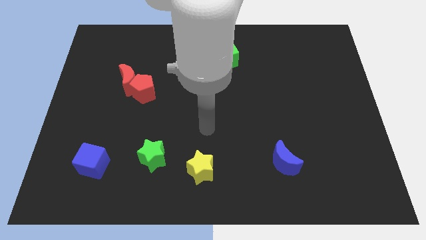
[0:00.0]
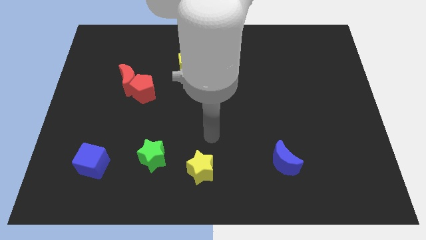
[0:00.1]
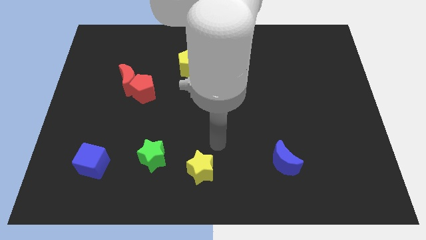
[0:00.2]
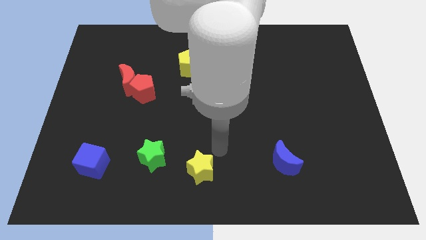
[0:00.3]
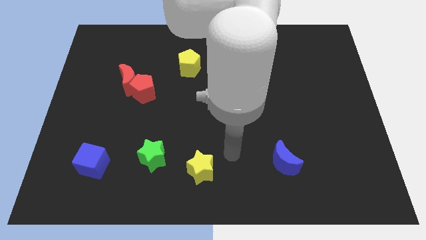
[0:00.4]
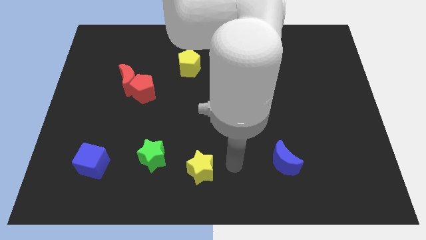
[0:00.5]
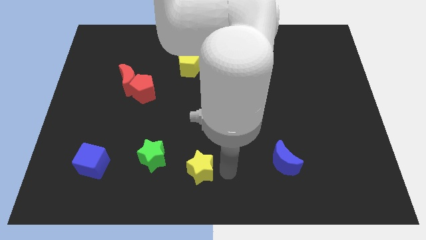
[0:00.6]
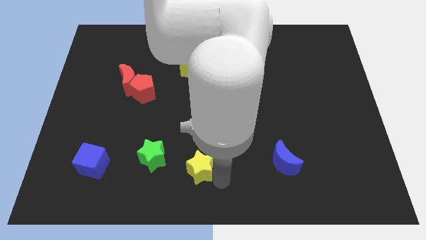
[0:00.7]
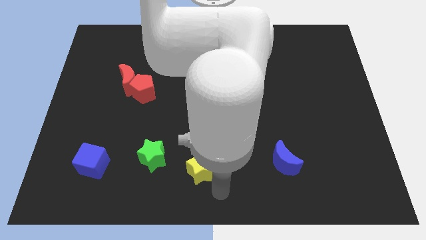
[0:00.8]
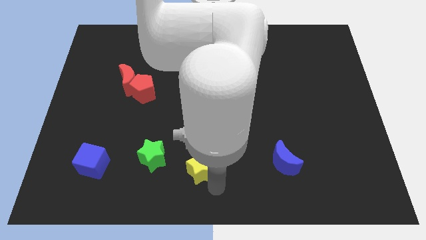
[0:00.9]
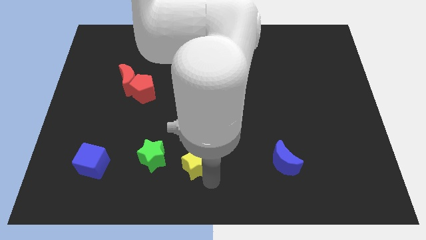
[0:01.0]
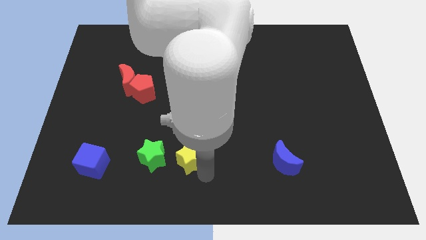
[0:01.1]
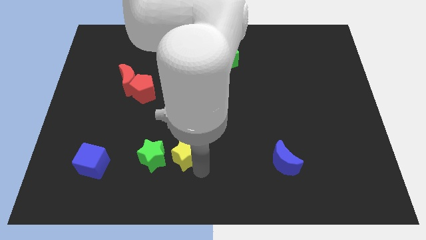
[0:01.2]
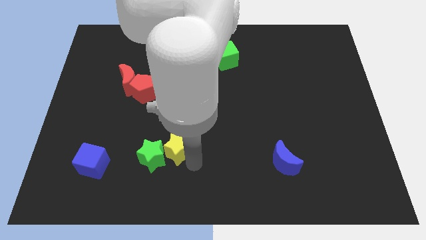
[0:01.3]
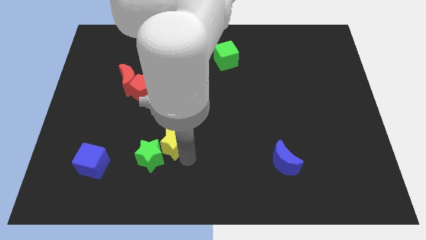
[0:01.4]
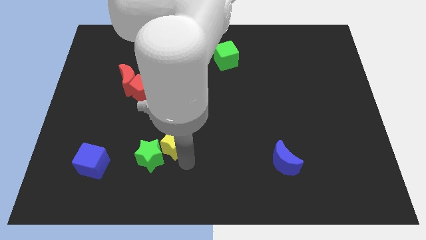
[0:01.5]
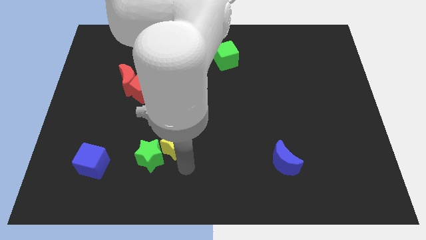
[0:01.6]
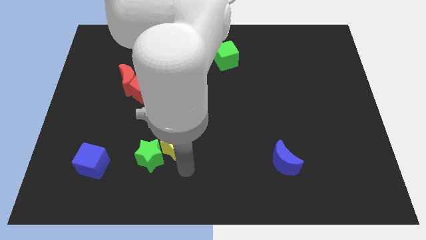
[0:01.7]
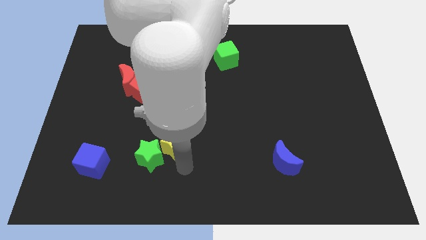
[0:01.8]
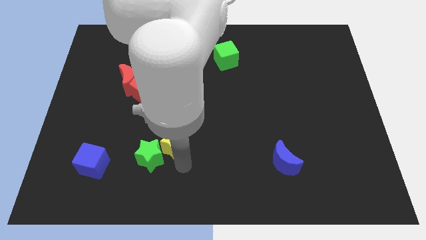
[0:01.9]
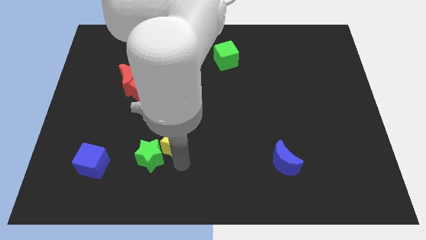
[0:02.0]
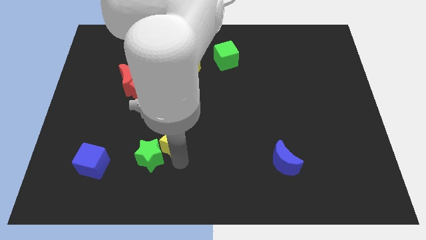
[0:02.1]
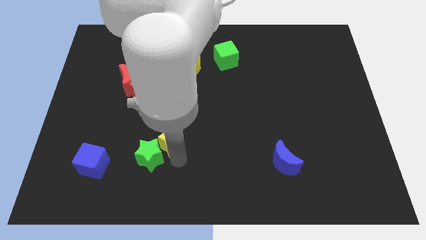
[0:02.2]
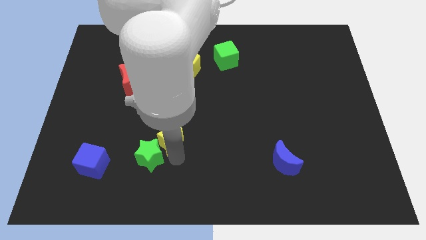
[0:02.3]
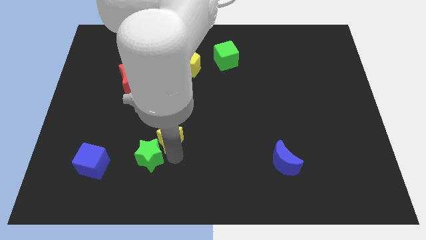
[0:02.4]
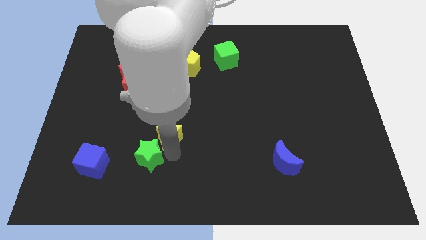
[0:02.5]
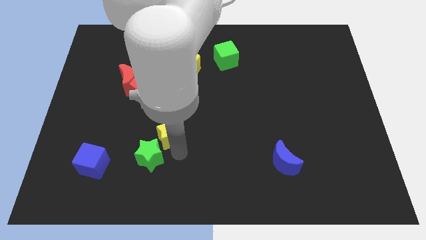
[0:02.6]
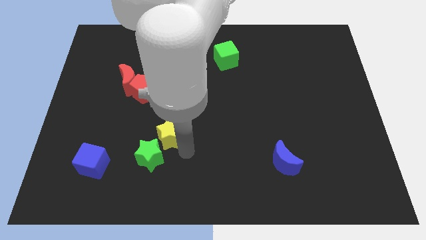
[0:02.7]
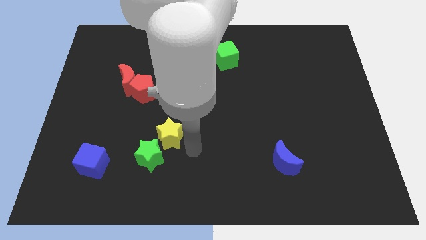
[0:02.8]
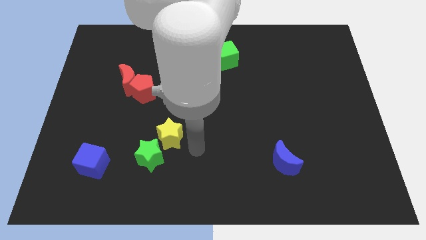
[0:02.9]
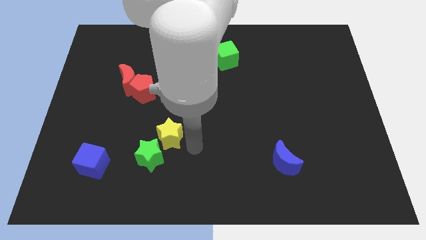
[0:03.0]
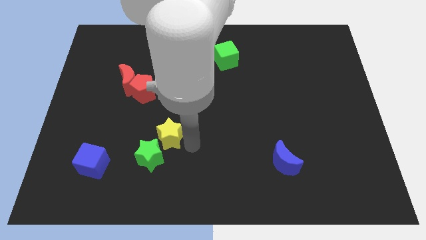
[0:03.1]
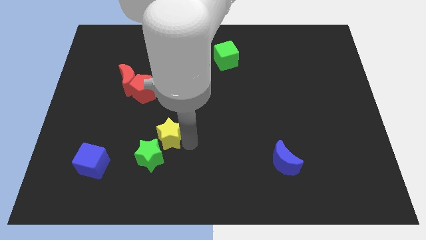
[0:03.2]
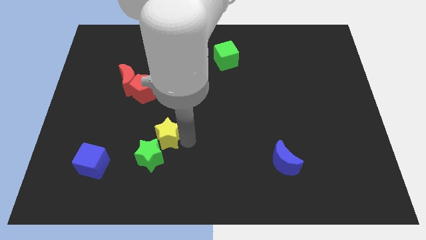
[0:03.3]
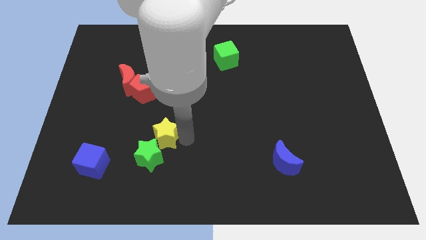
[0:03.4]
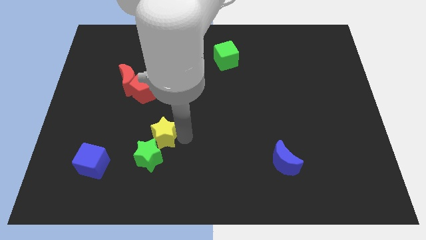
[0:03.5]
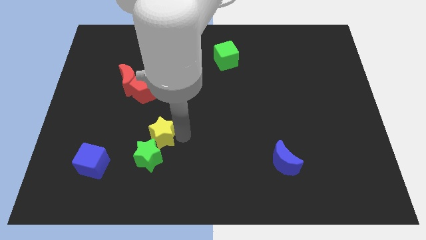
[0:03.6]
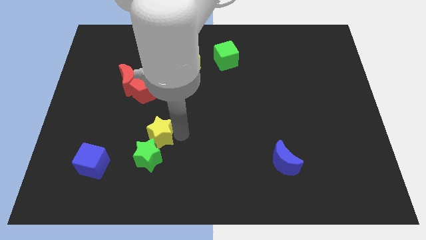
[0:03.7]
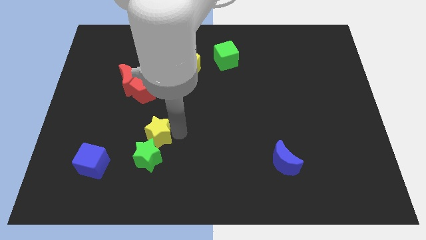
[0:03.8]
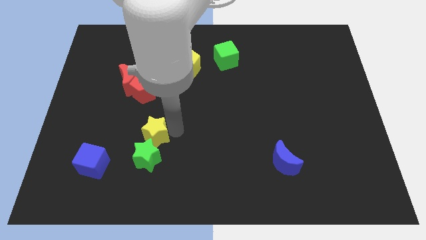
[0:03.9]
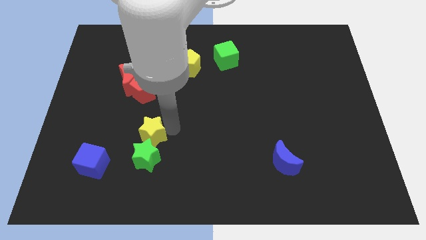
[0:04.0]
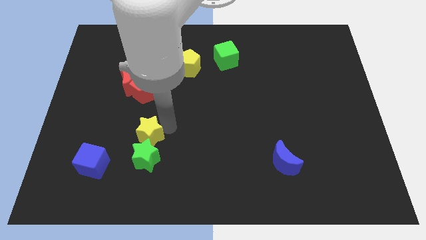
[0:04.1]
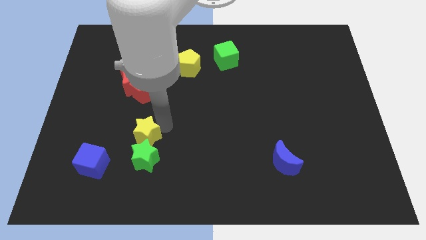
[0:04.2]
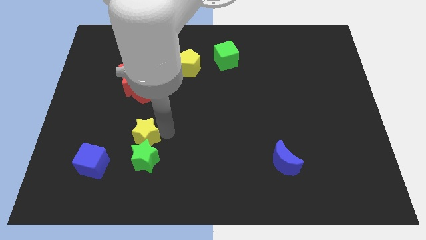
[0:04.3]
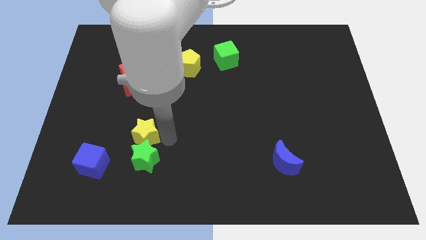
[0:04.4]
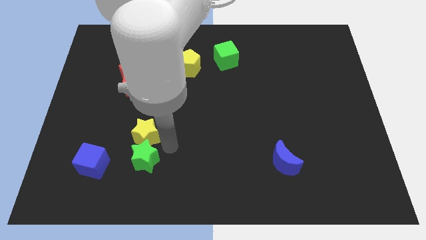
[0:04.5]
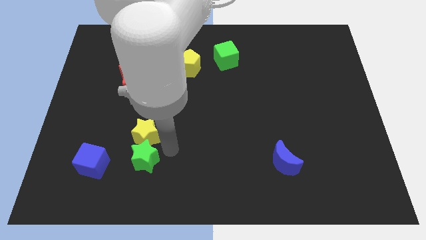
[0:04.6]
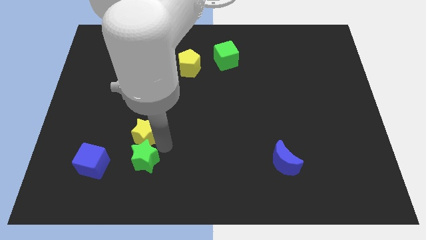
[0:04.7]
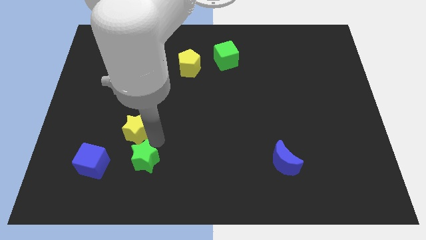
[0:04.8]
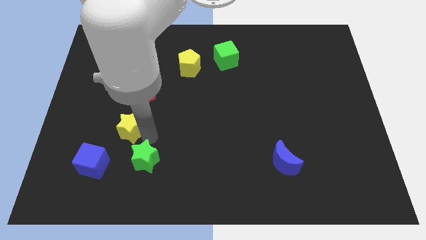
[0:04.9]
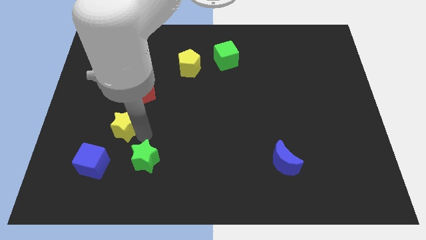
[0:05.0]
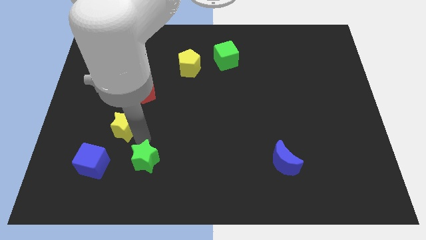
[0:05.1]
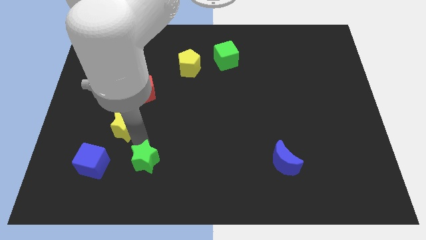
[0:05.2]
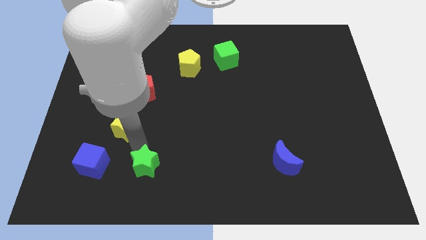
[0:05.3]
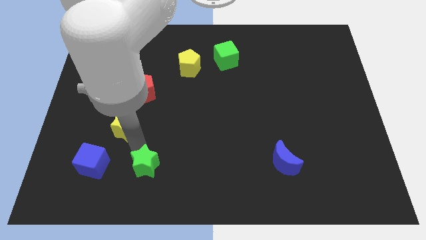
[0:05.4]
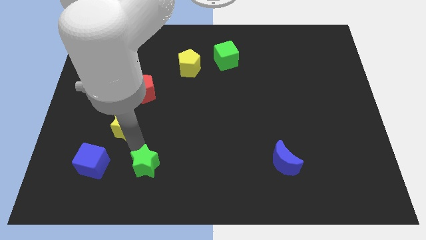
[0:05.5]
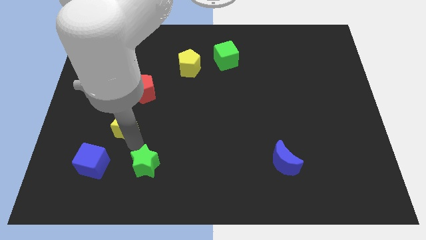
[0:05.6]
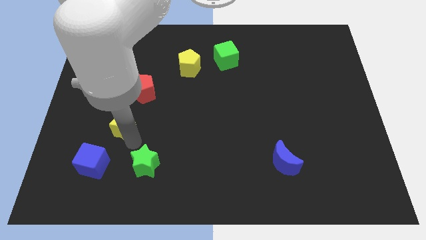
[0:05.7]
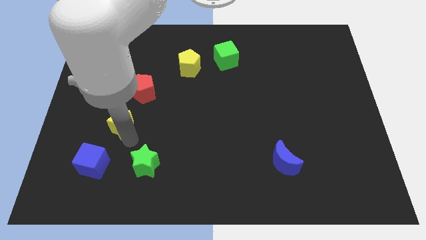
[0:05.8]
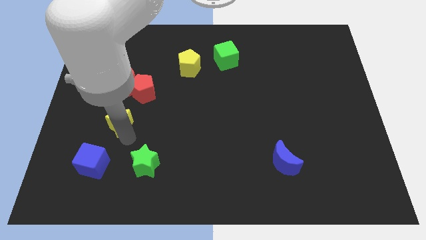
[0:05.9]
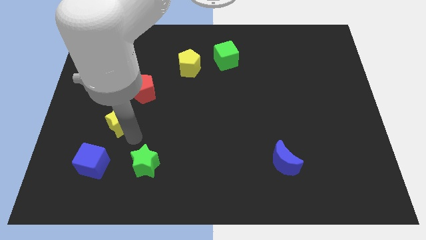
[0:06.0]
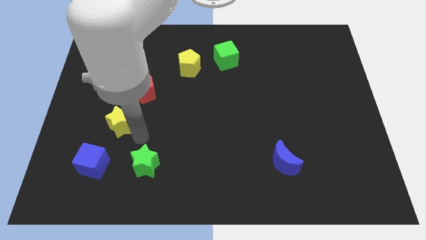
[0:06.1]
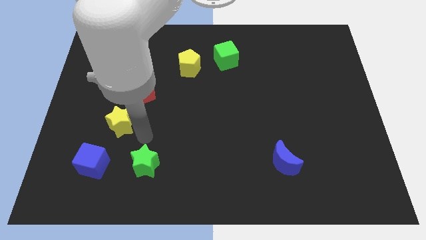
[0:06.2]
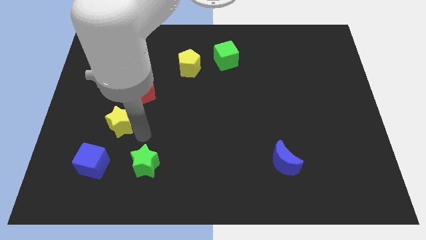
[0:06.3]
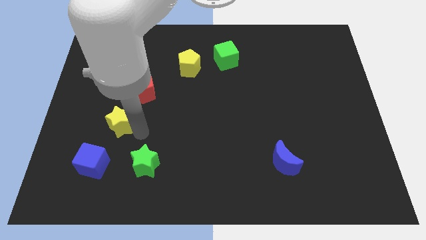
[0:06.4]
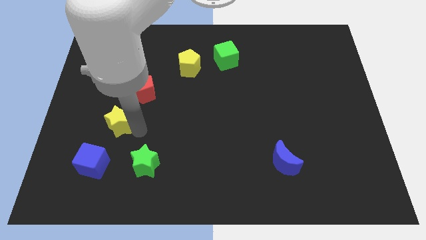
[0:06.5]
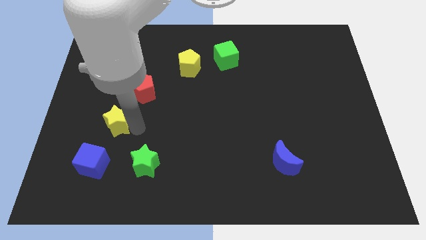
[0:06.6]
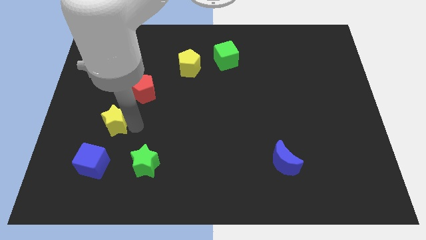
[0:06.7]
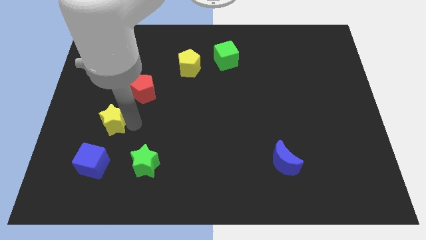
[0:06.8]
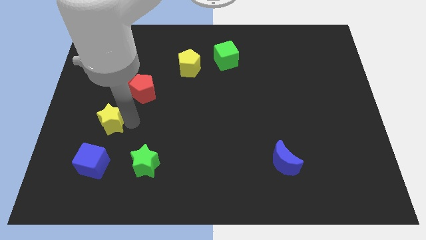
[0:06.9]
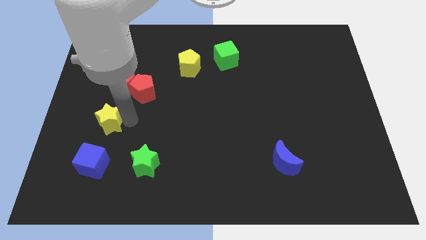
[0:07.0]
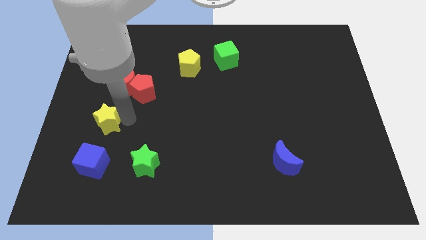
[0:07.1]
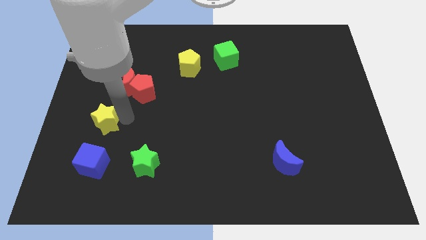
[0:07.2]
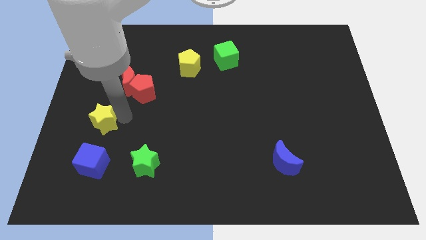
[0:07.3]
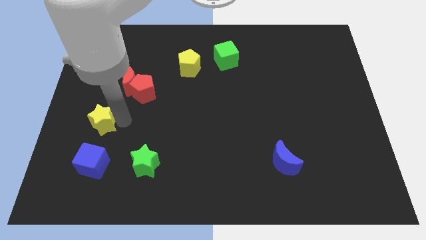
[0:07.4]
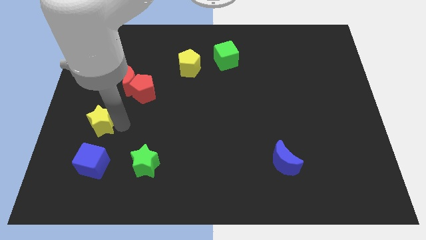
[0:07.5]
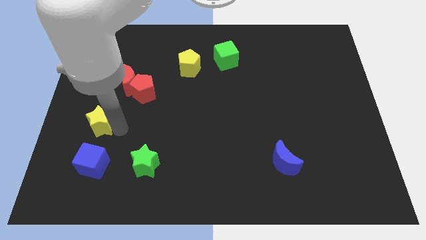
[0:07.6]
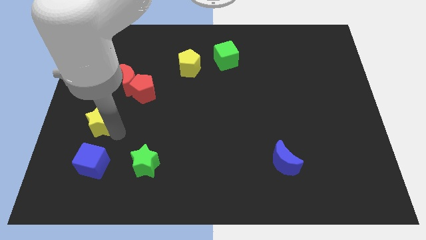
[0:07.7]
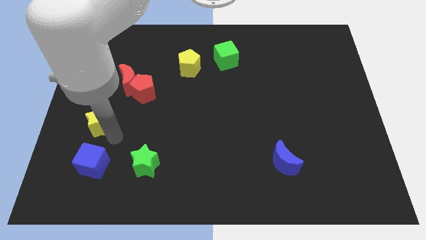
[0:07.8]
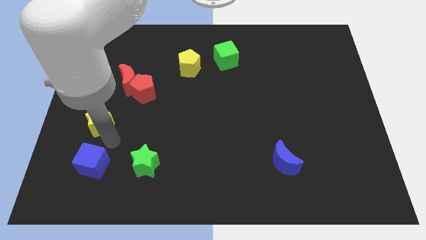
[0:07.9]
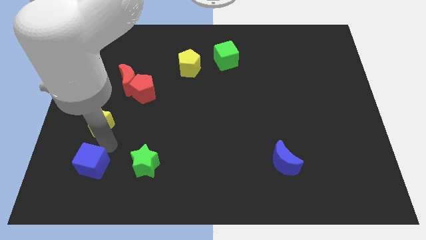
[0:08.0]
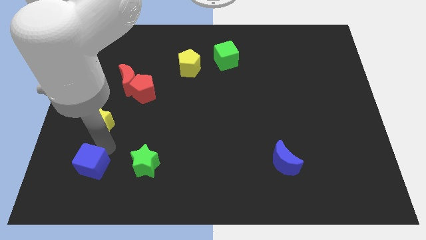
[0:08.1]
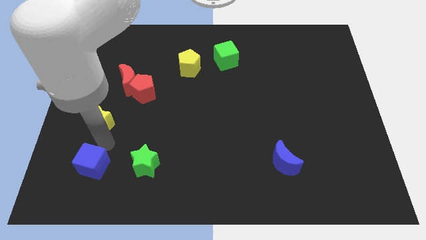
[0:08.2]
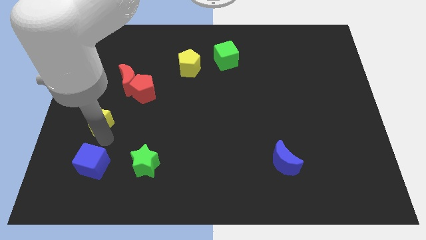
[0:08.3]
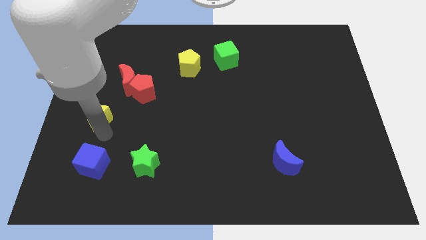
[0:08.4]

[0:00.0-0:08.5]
put the yellow star to the left side
